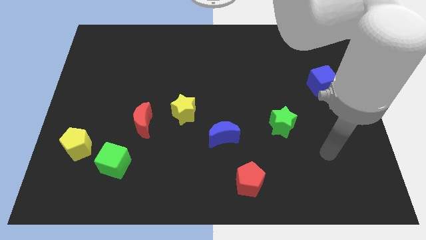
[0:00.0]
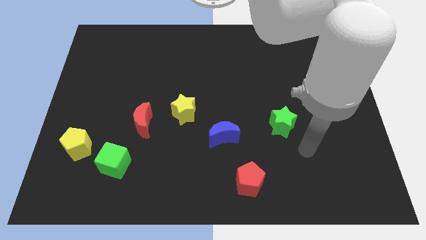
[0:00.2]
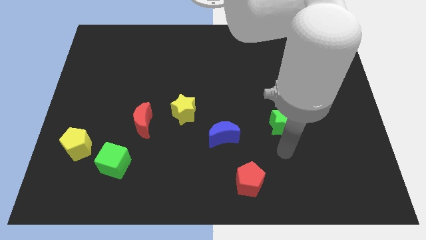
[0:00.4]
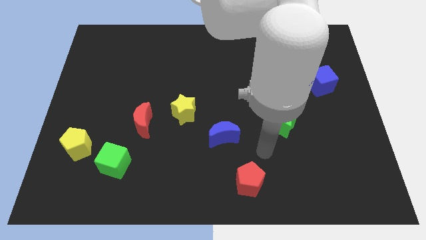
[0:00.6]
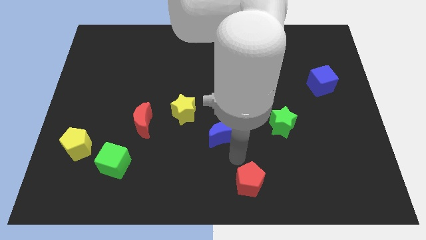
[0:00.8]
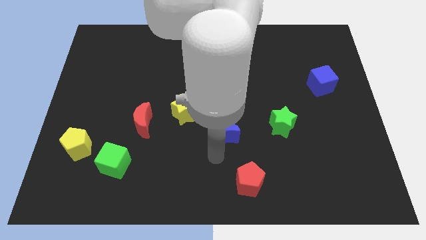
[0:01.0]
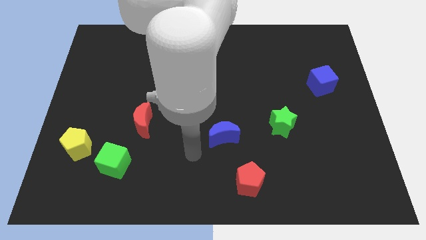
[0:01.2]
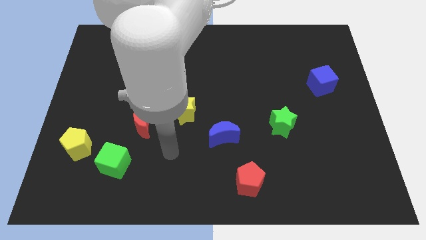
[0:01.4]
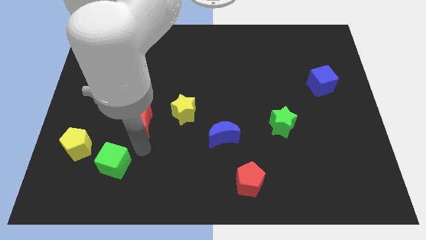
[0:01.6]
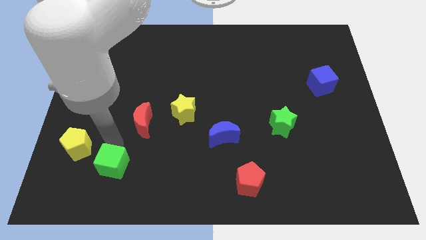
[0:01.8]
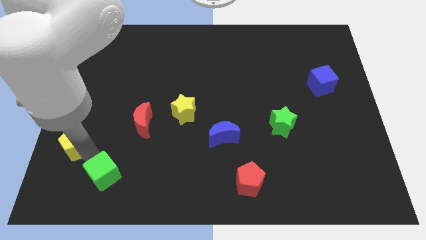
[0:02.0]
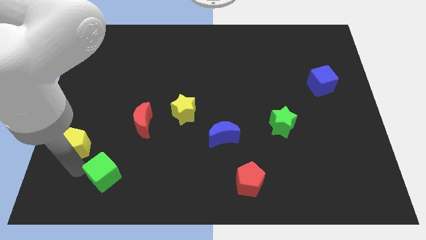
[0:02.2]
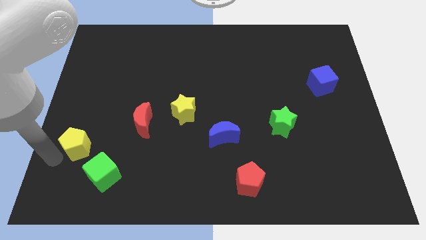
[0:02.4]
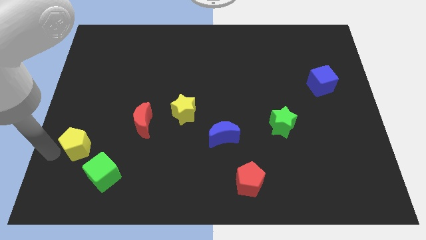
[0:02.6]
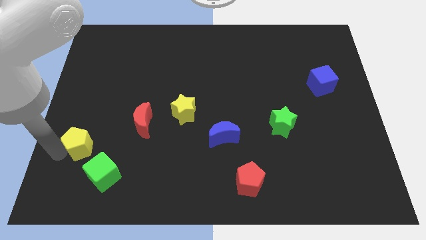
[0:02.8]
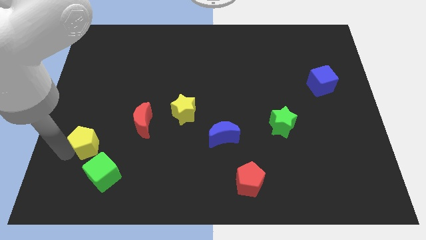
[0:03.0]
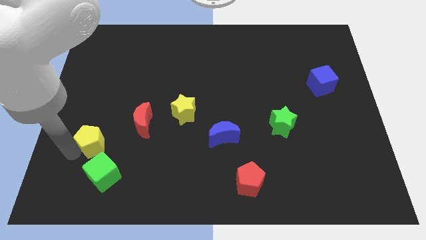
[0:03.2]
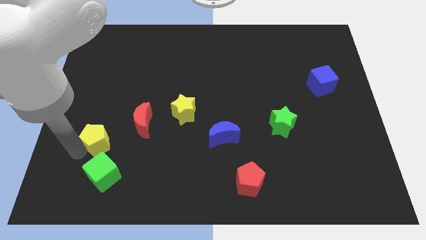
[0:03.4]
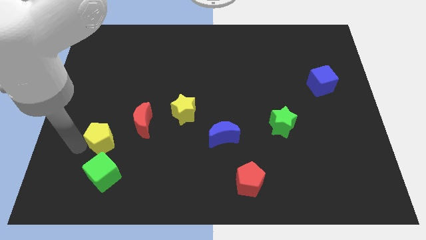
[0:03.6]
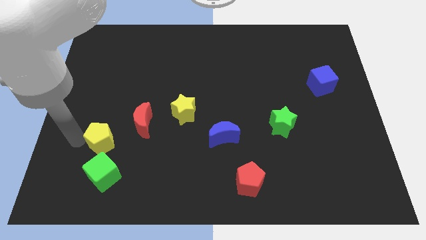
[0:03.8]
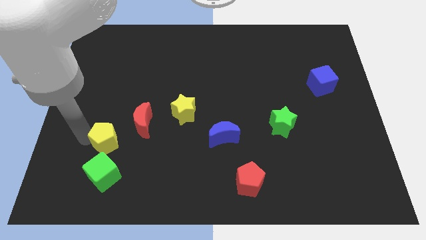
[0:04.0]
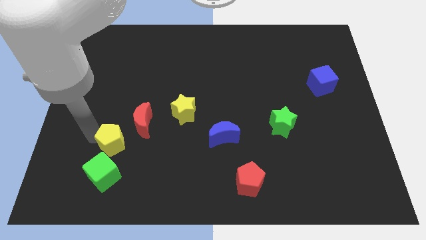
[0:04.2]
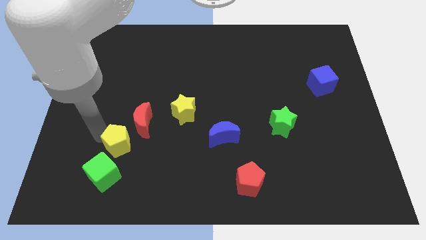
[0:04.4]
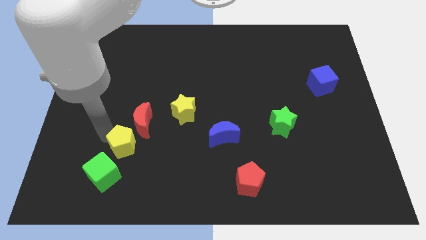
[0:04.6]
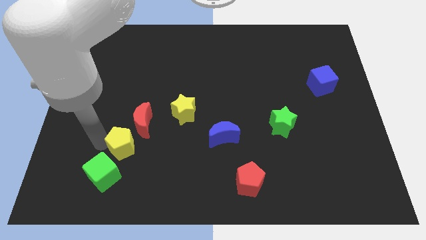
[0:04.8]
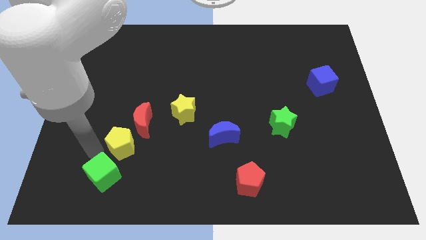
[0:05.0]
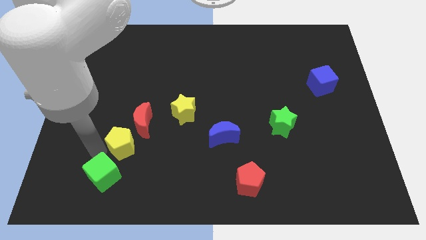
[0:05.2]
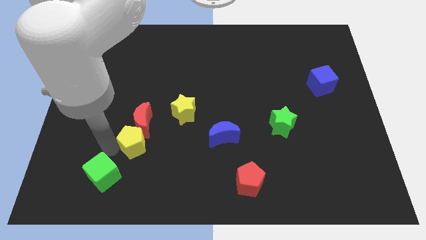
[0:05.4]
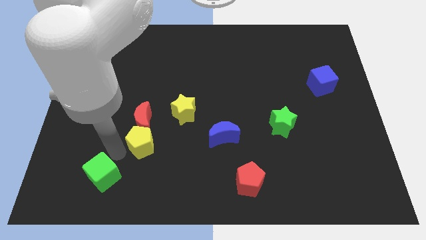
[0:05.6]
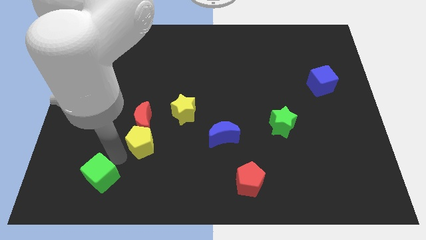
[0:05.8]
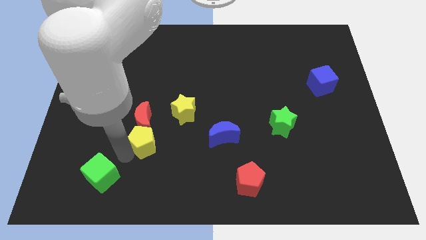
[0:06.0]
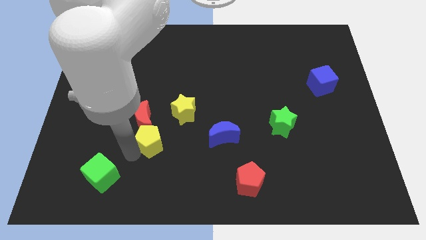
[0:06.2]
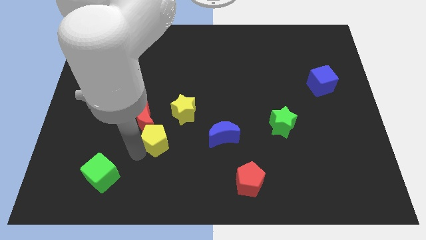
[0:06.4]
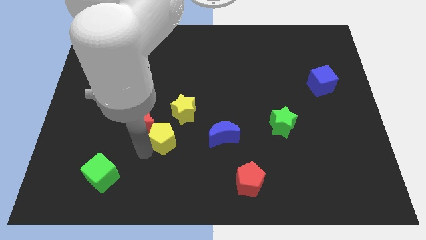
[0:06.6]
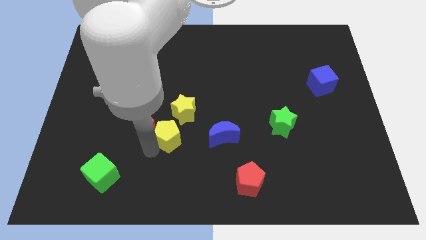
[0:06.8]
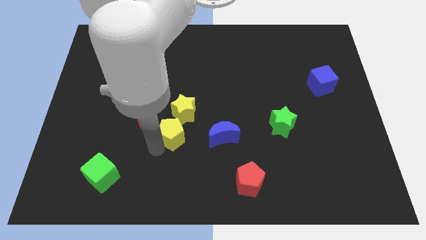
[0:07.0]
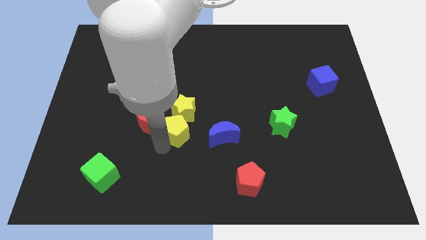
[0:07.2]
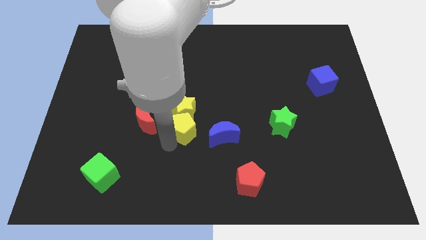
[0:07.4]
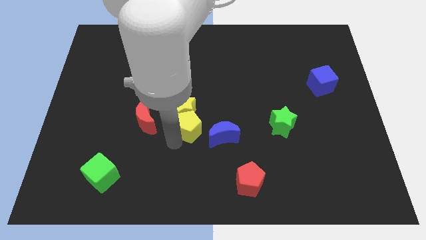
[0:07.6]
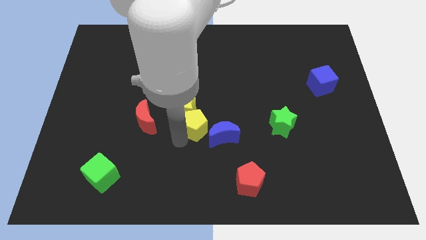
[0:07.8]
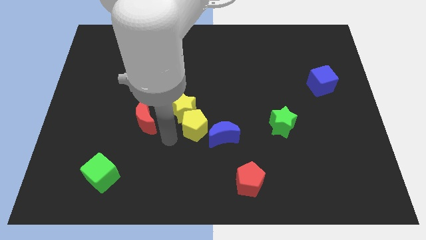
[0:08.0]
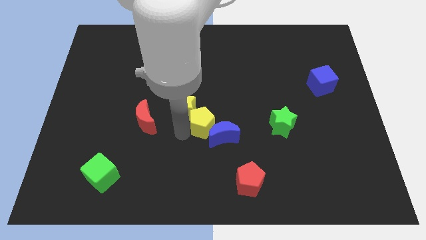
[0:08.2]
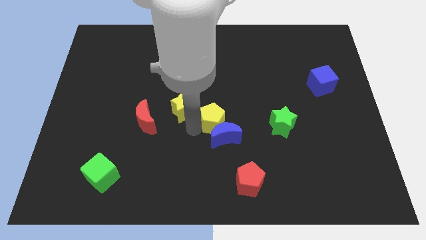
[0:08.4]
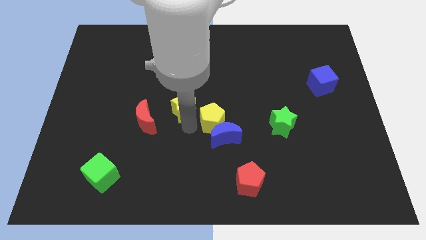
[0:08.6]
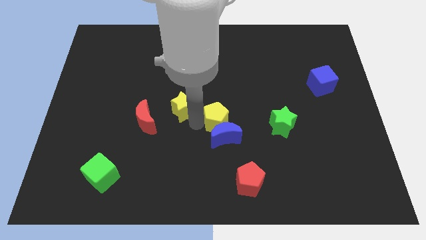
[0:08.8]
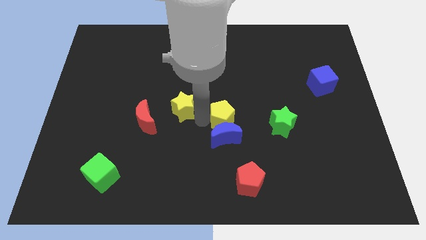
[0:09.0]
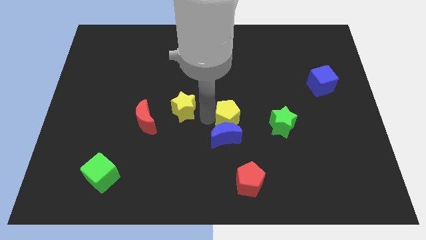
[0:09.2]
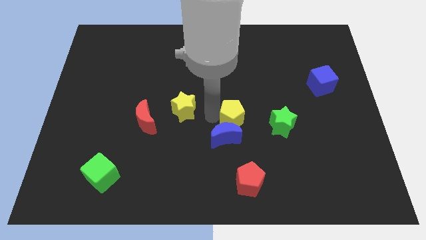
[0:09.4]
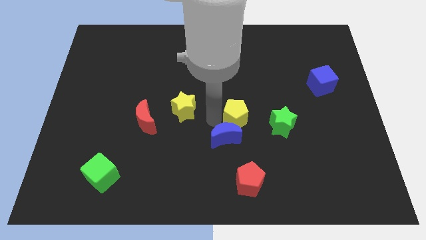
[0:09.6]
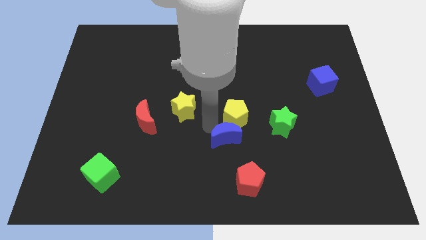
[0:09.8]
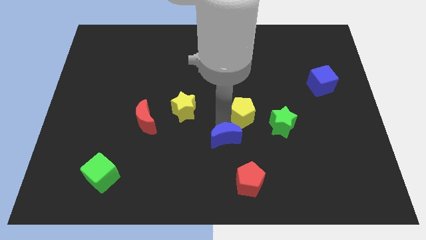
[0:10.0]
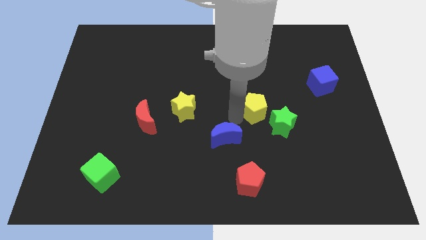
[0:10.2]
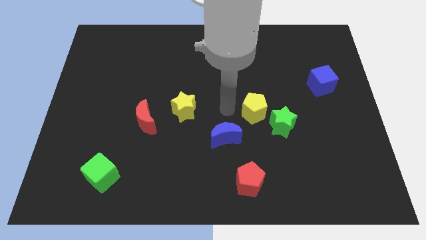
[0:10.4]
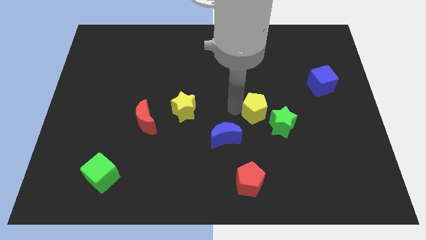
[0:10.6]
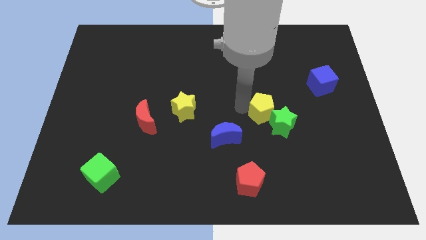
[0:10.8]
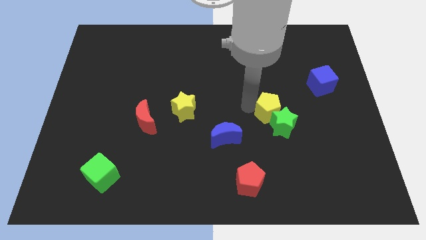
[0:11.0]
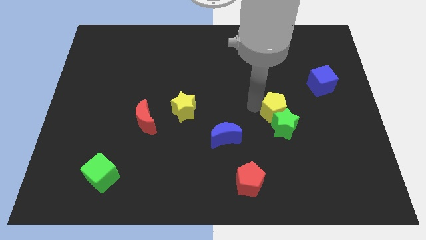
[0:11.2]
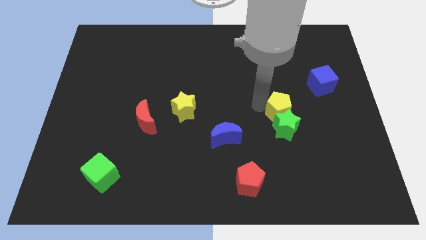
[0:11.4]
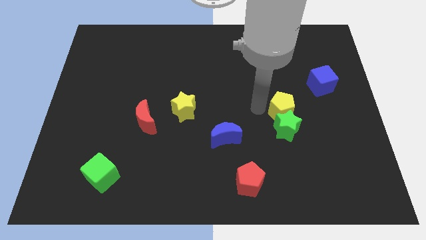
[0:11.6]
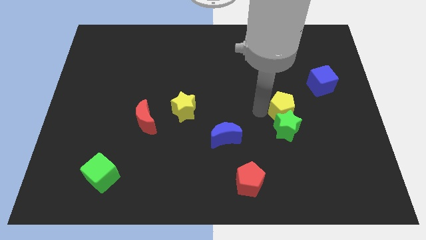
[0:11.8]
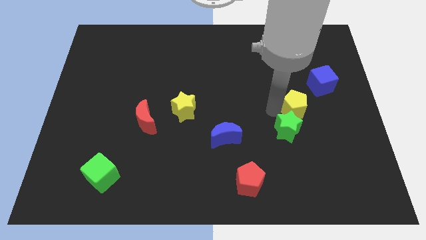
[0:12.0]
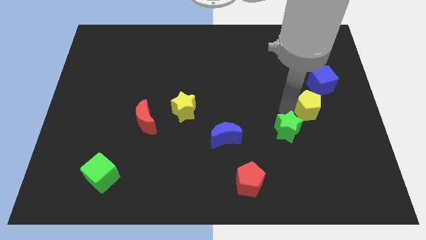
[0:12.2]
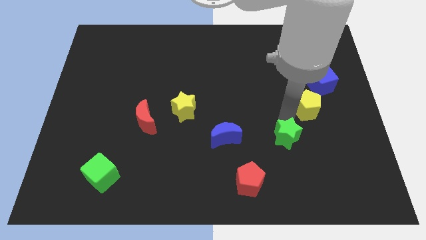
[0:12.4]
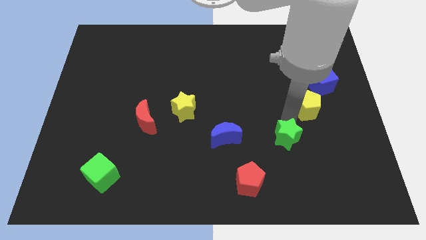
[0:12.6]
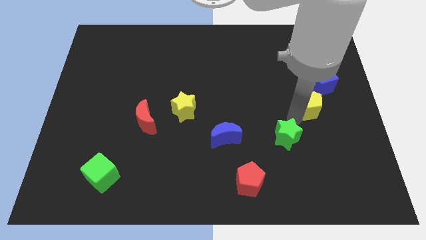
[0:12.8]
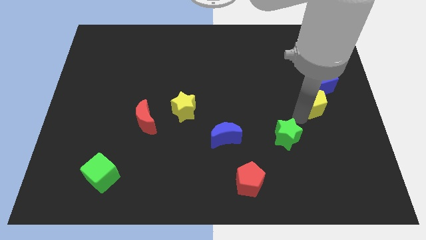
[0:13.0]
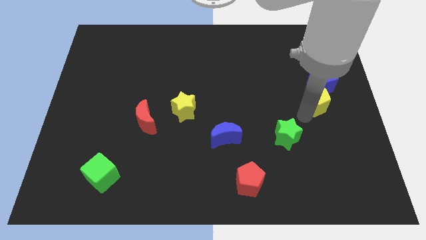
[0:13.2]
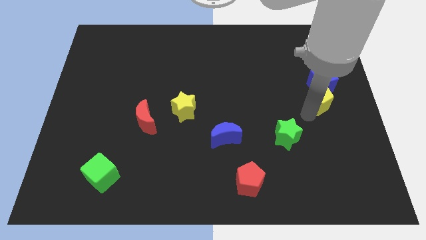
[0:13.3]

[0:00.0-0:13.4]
put the yellow pentagon to the right side

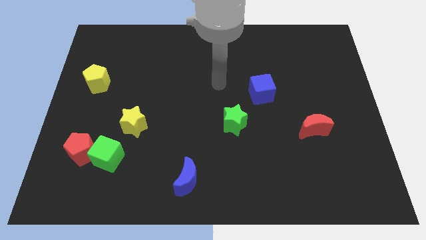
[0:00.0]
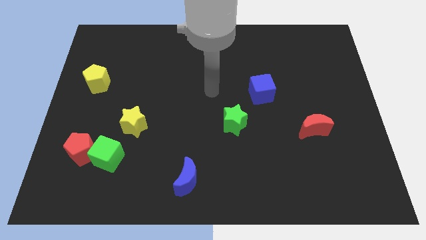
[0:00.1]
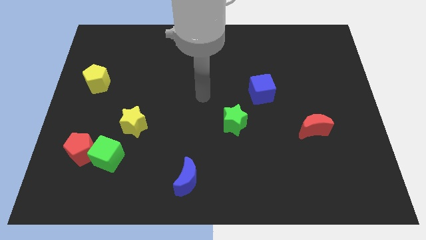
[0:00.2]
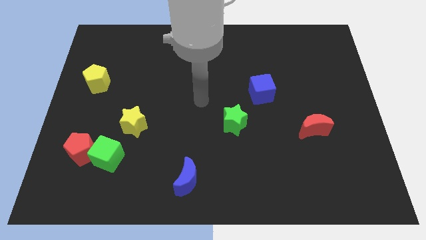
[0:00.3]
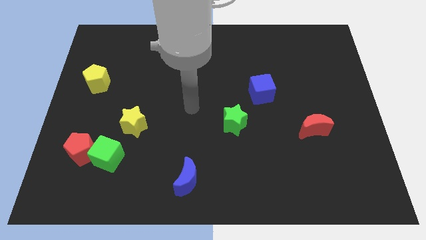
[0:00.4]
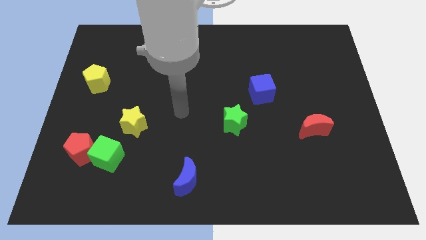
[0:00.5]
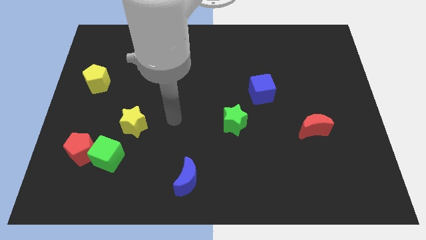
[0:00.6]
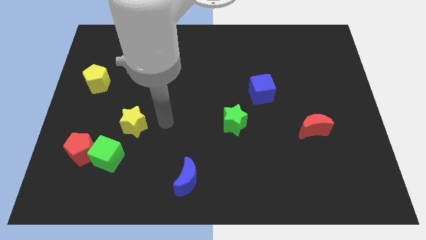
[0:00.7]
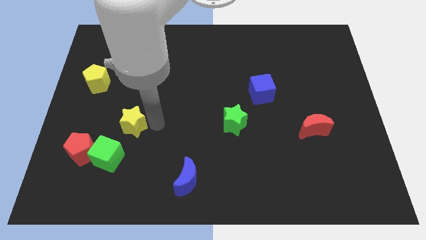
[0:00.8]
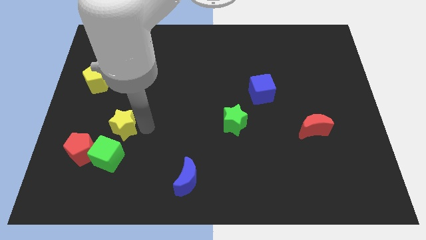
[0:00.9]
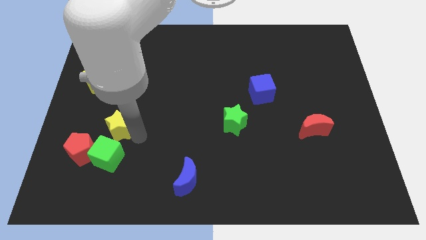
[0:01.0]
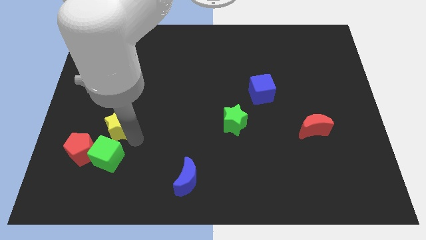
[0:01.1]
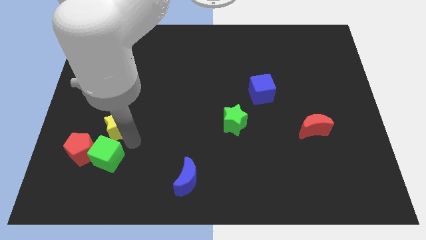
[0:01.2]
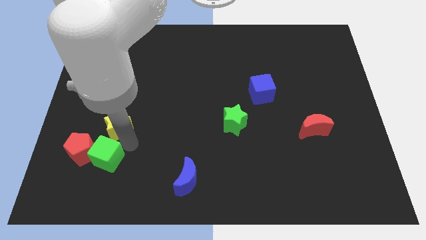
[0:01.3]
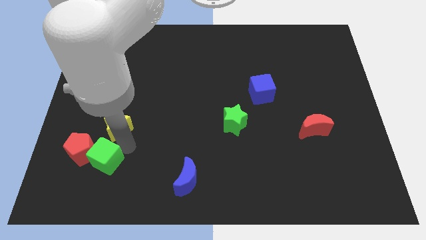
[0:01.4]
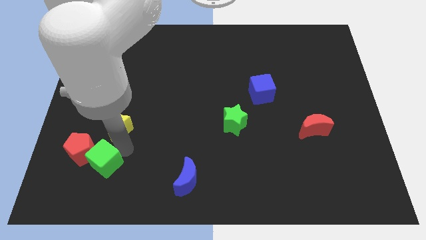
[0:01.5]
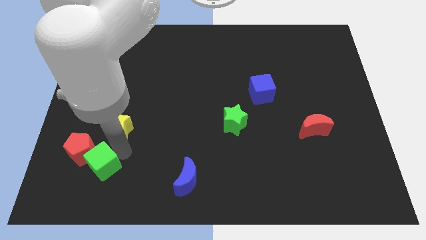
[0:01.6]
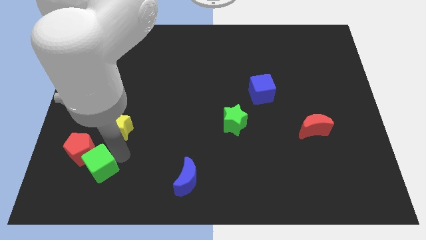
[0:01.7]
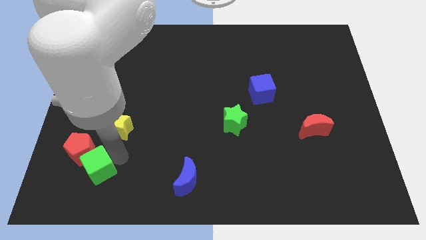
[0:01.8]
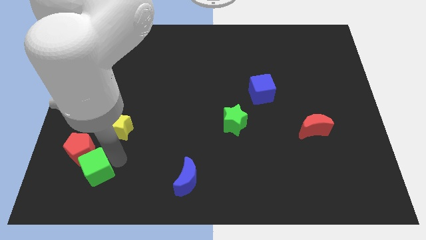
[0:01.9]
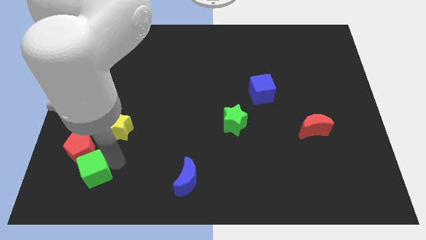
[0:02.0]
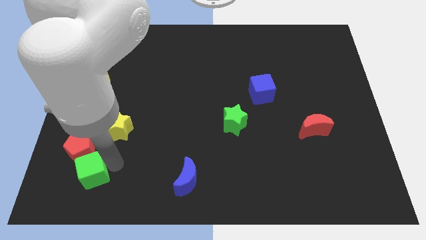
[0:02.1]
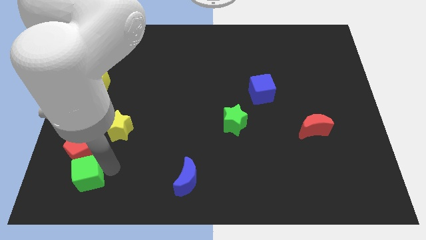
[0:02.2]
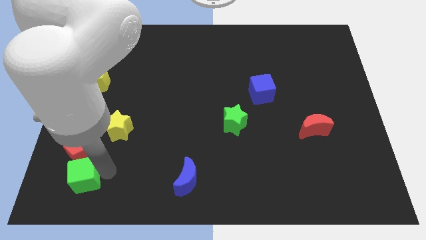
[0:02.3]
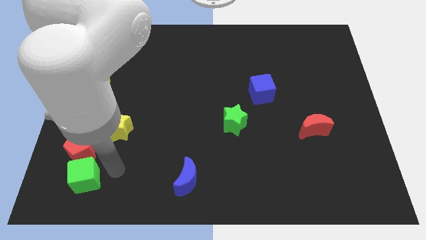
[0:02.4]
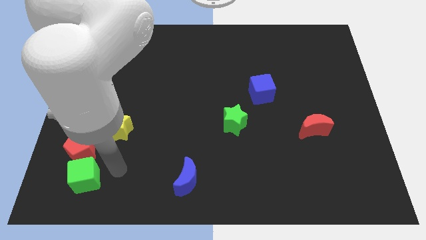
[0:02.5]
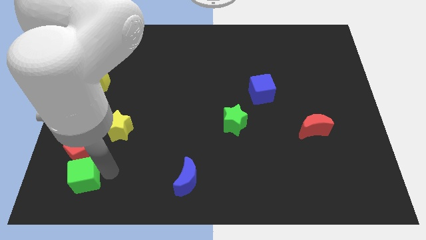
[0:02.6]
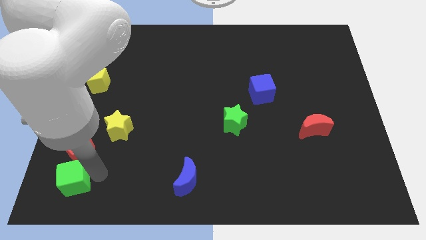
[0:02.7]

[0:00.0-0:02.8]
put the green cube to the bottom left of the board
